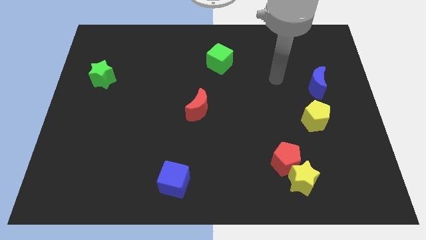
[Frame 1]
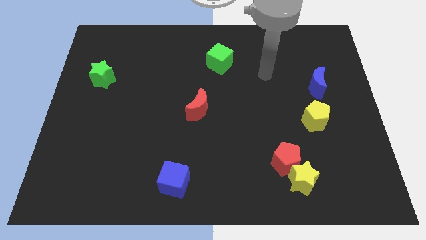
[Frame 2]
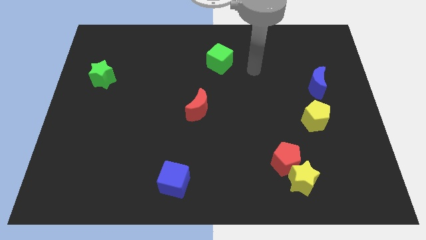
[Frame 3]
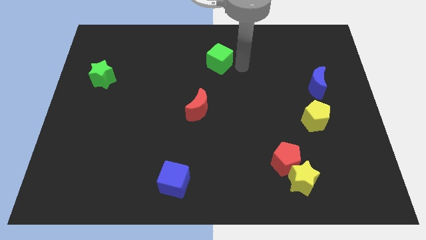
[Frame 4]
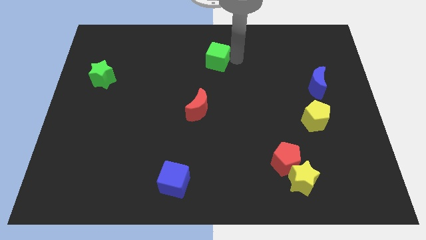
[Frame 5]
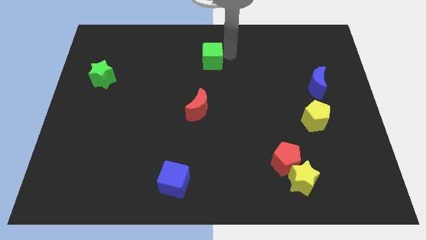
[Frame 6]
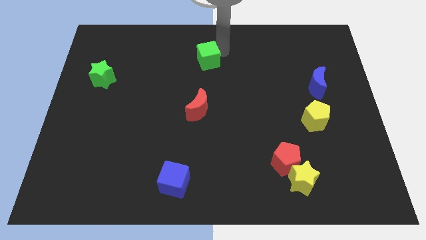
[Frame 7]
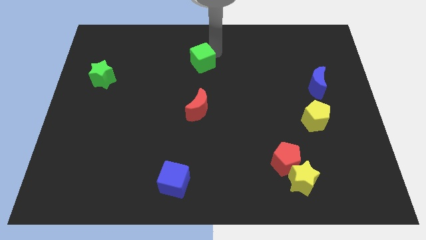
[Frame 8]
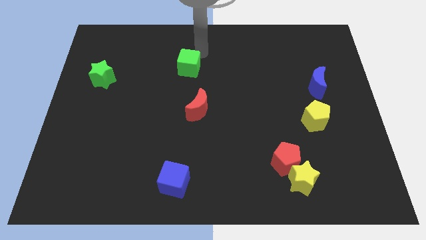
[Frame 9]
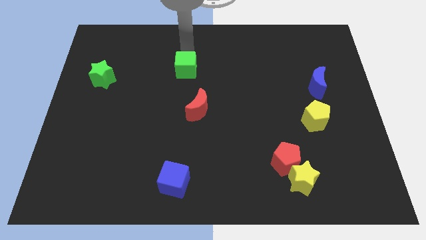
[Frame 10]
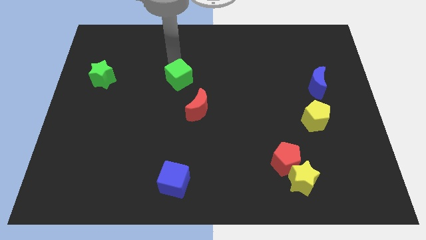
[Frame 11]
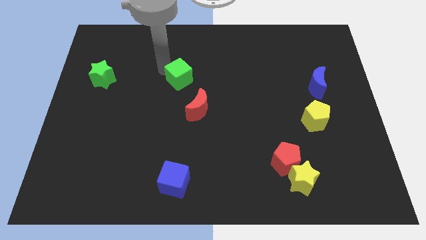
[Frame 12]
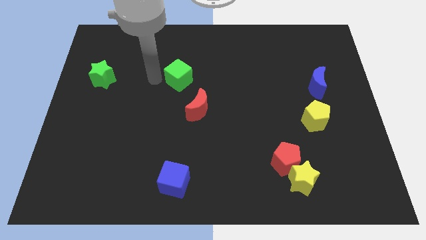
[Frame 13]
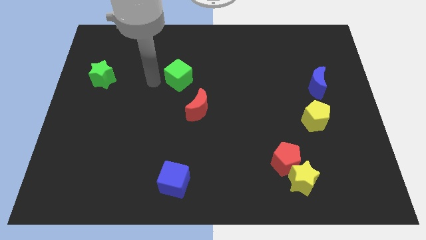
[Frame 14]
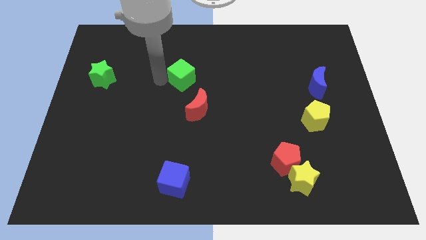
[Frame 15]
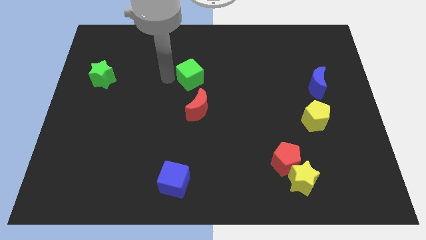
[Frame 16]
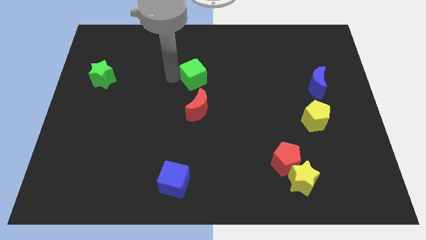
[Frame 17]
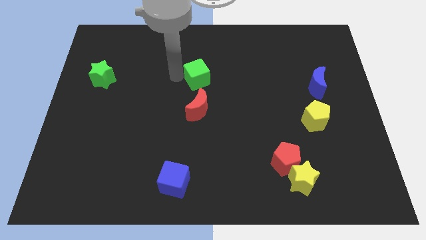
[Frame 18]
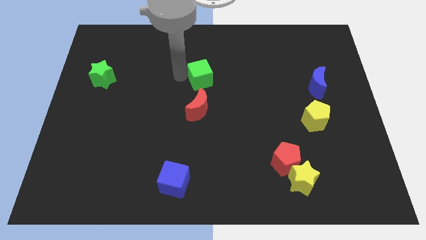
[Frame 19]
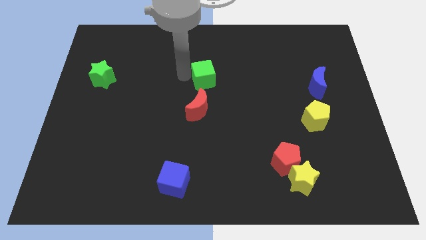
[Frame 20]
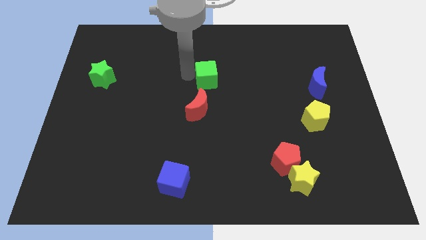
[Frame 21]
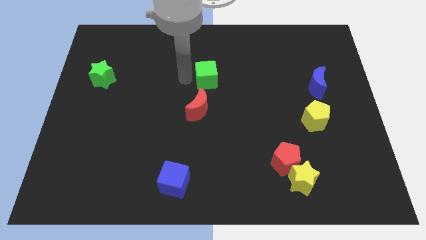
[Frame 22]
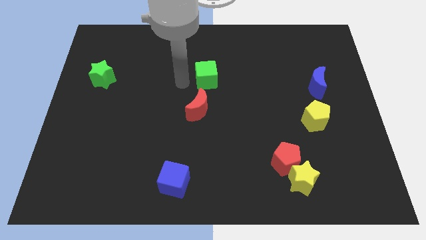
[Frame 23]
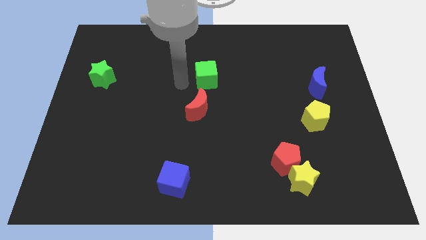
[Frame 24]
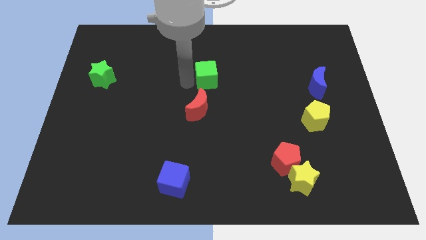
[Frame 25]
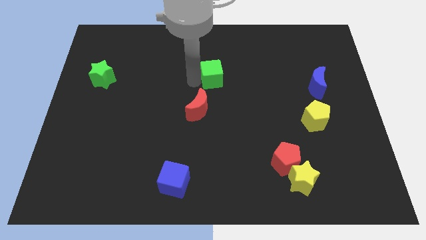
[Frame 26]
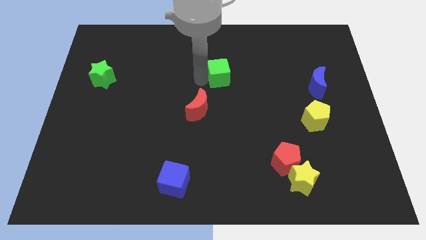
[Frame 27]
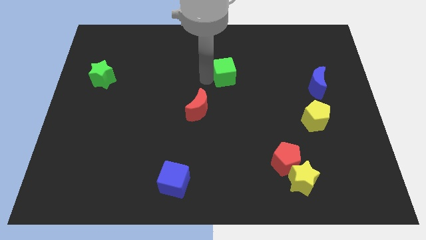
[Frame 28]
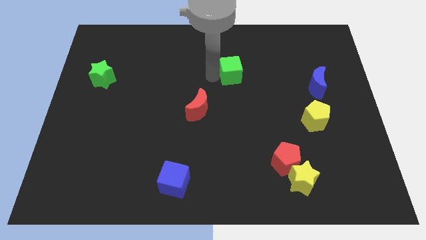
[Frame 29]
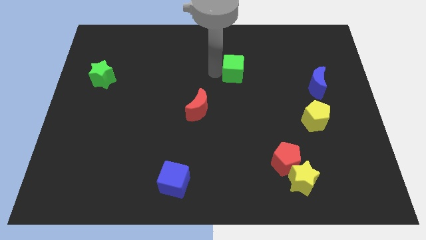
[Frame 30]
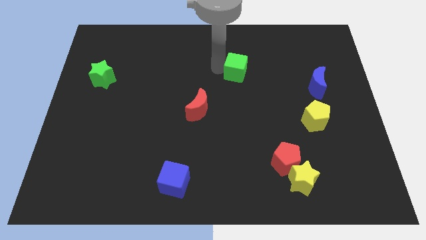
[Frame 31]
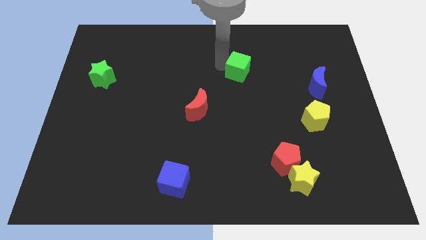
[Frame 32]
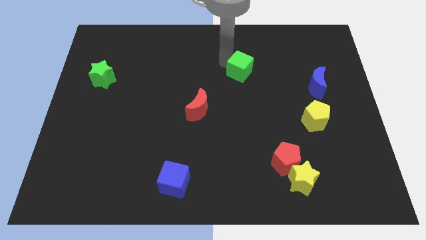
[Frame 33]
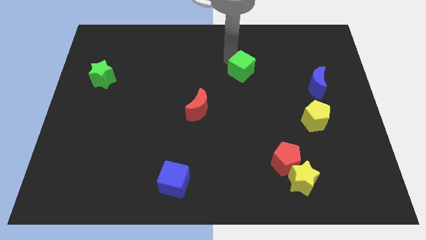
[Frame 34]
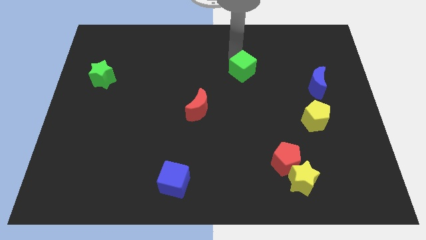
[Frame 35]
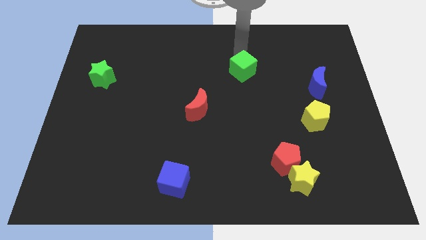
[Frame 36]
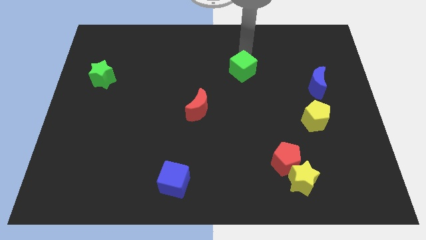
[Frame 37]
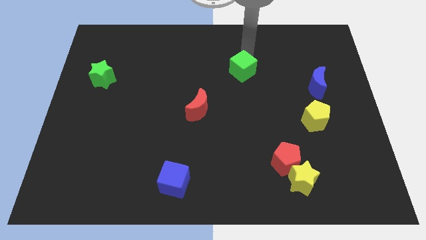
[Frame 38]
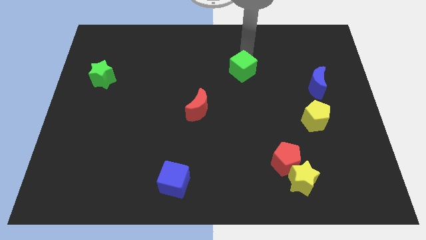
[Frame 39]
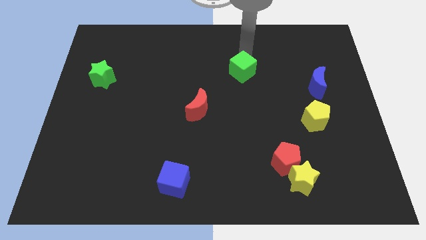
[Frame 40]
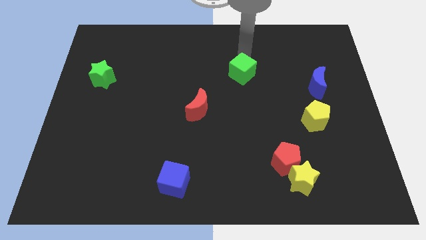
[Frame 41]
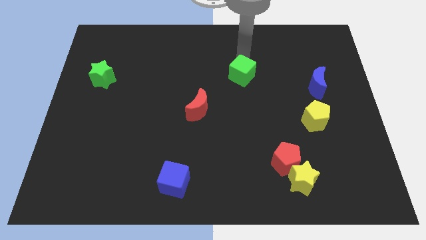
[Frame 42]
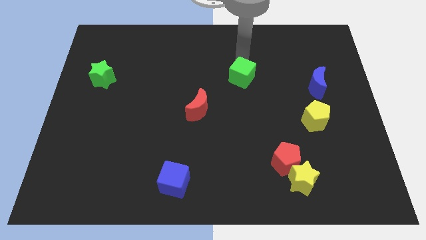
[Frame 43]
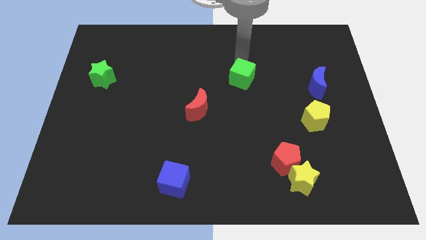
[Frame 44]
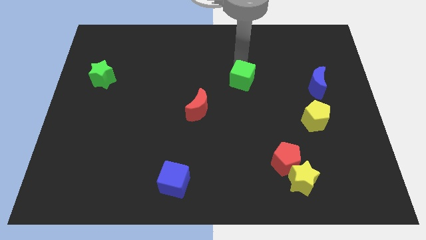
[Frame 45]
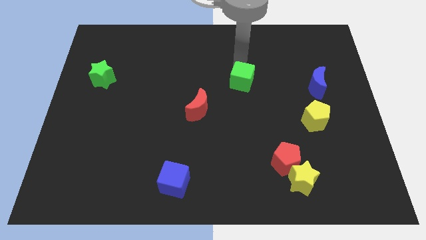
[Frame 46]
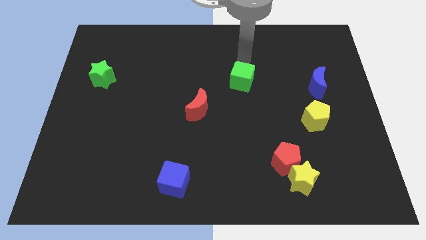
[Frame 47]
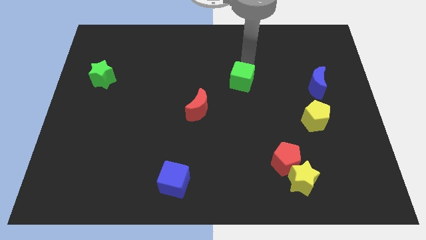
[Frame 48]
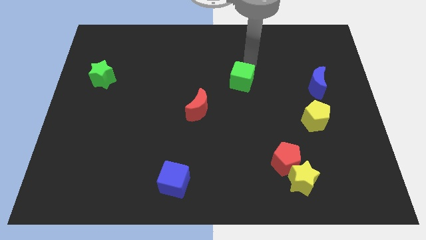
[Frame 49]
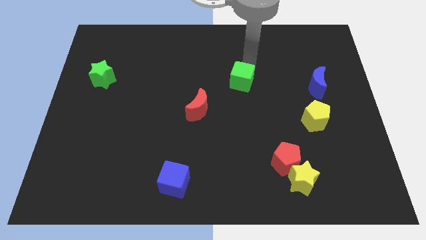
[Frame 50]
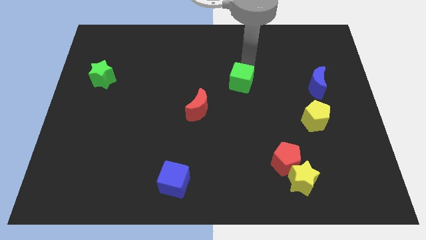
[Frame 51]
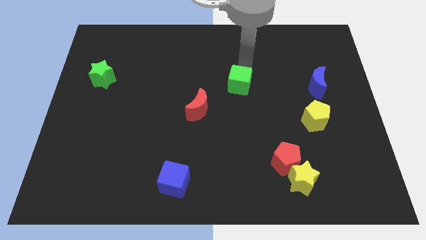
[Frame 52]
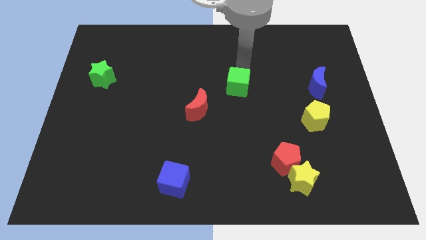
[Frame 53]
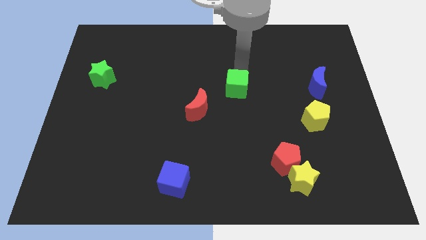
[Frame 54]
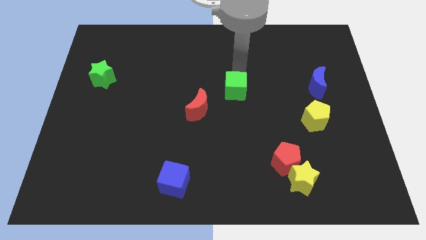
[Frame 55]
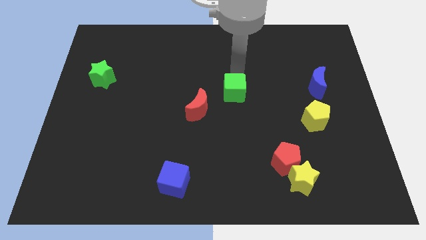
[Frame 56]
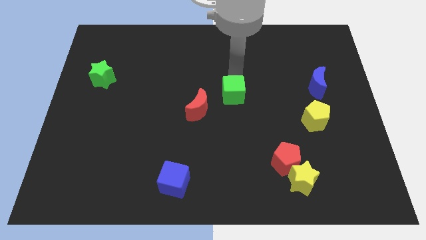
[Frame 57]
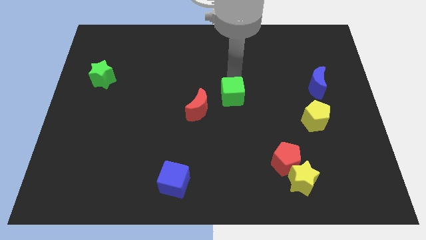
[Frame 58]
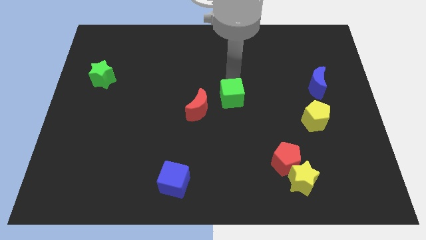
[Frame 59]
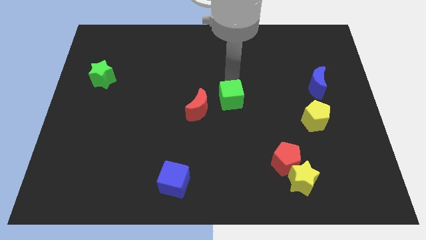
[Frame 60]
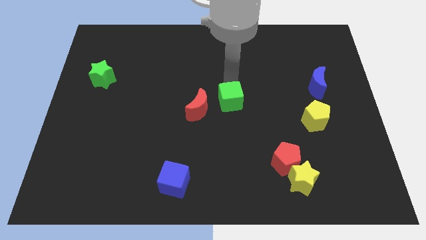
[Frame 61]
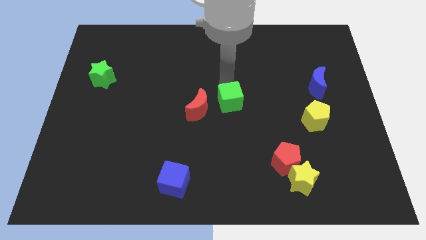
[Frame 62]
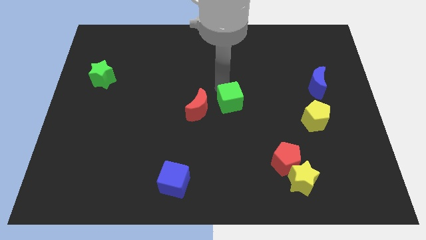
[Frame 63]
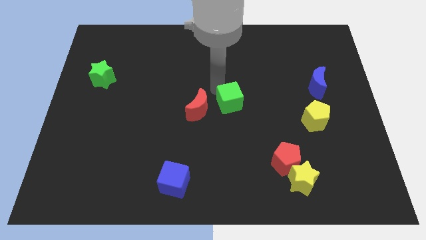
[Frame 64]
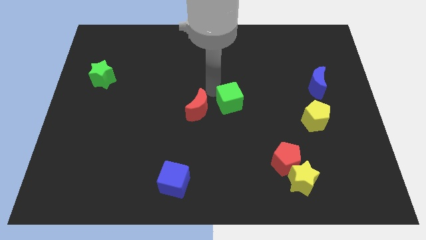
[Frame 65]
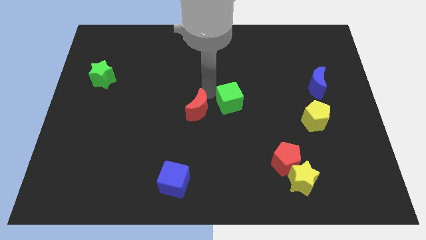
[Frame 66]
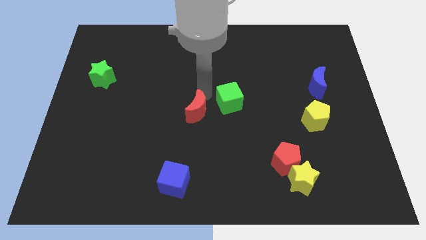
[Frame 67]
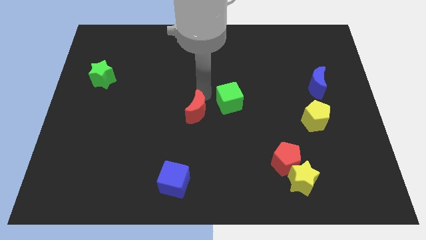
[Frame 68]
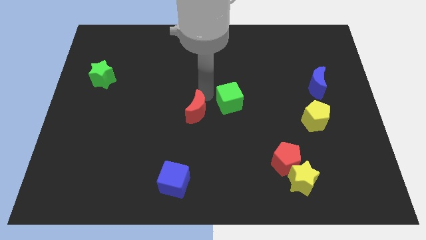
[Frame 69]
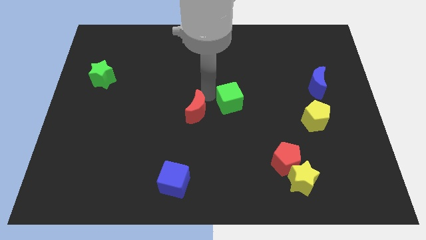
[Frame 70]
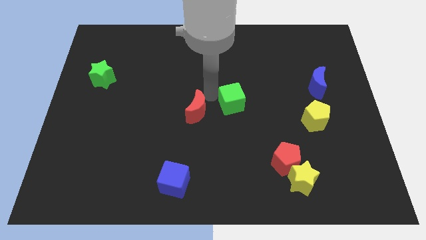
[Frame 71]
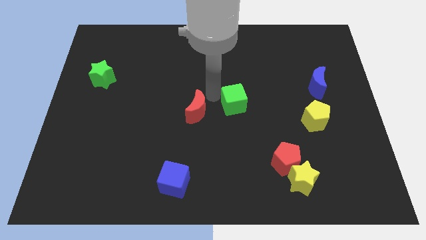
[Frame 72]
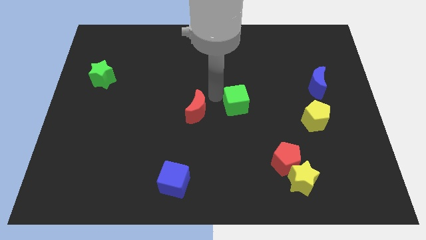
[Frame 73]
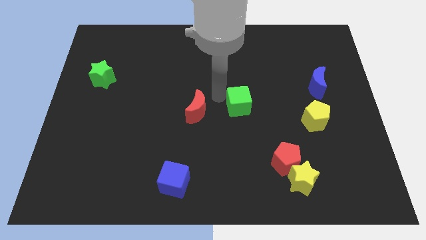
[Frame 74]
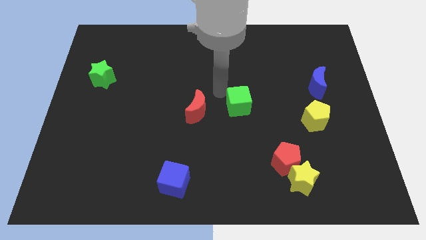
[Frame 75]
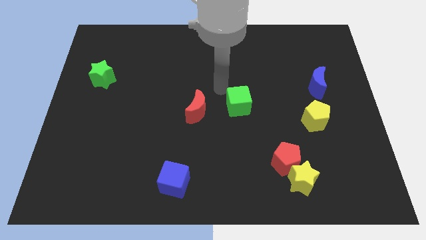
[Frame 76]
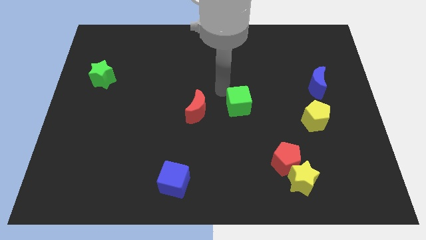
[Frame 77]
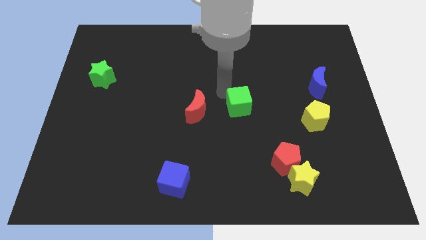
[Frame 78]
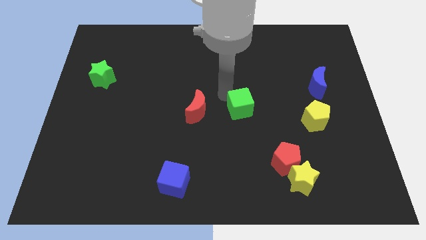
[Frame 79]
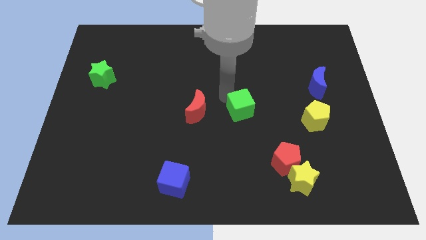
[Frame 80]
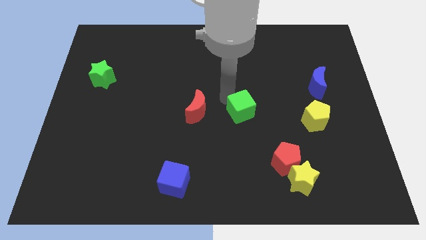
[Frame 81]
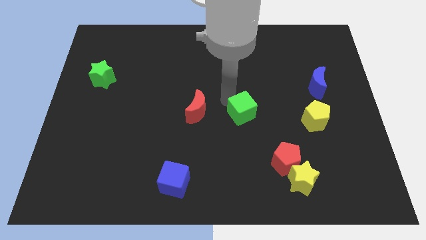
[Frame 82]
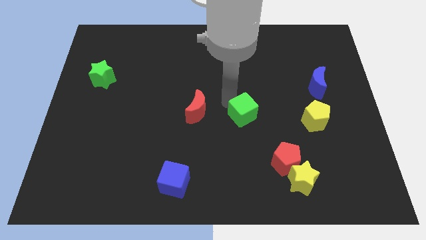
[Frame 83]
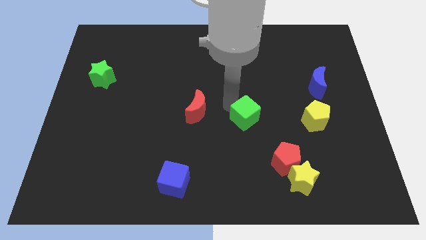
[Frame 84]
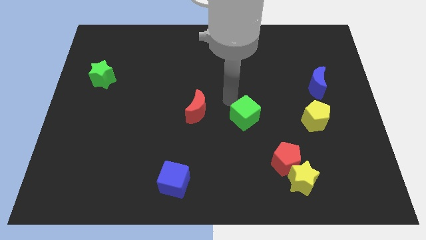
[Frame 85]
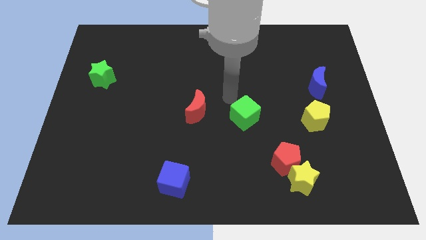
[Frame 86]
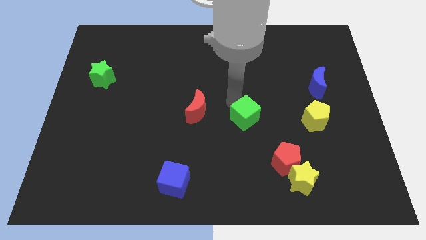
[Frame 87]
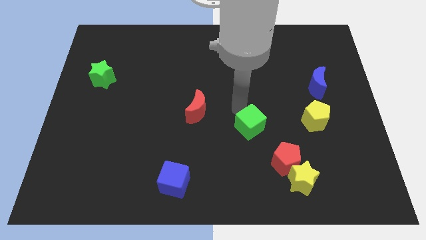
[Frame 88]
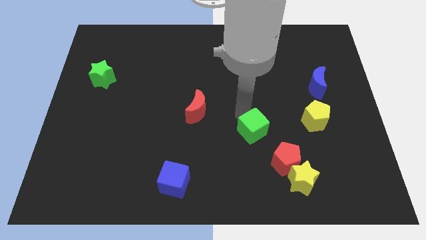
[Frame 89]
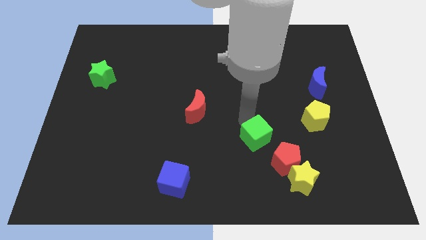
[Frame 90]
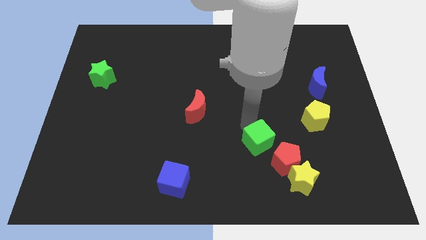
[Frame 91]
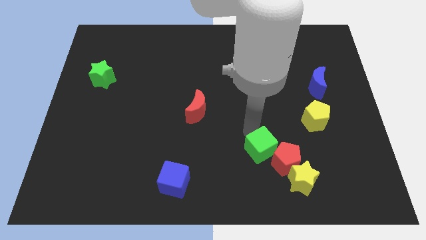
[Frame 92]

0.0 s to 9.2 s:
push the green cube to the red pentagon
